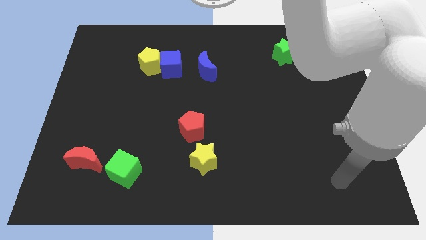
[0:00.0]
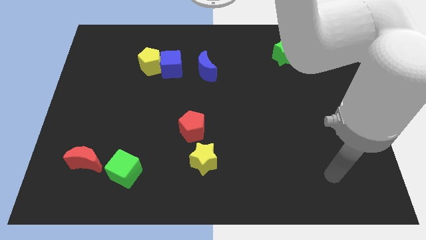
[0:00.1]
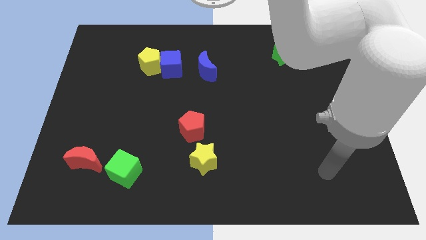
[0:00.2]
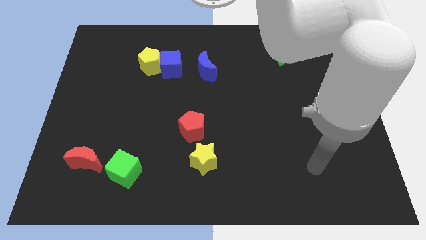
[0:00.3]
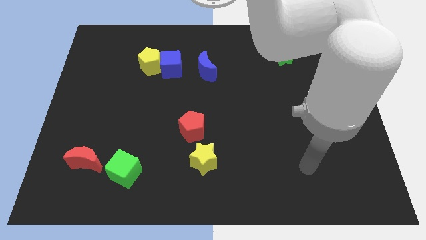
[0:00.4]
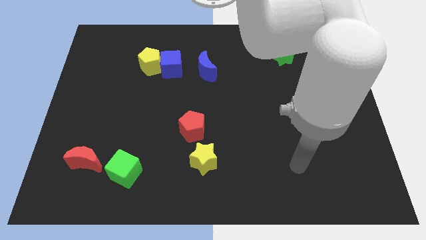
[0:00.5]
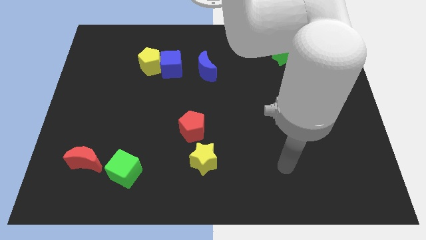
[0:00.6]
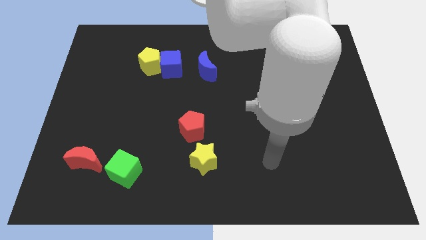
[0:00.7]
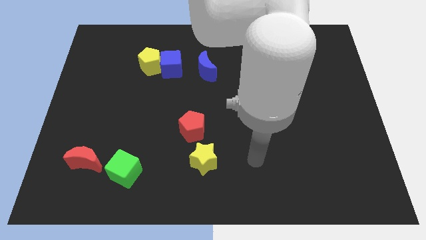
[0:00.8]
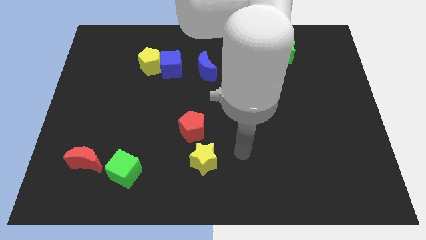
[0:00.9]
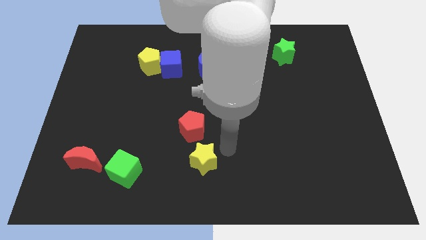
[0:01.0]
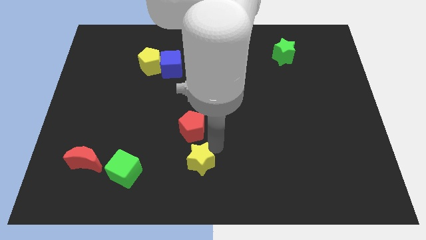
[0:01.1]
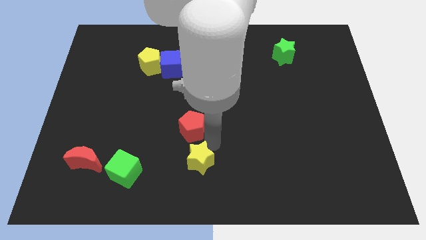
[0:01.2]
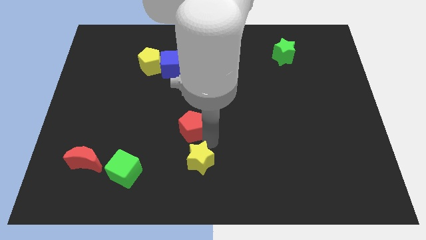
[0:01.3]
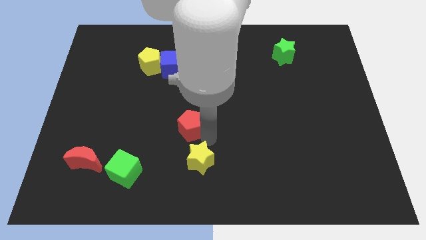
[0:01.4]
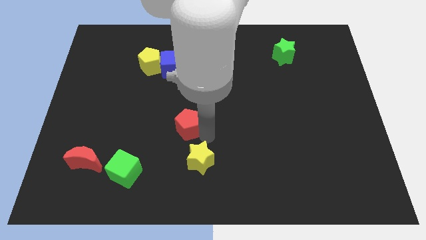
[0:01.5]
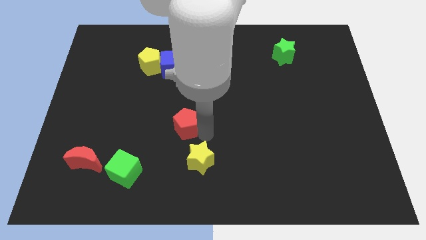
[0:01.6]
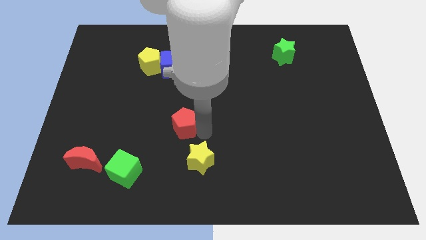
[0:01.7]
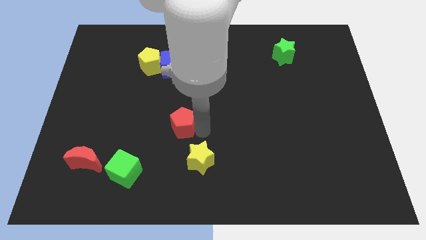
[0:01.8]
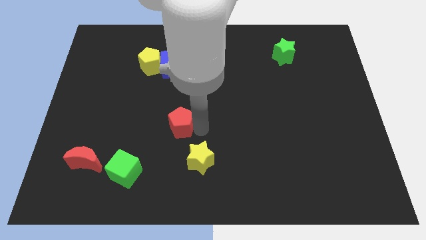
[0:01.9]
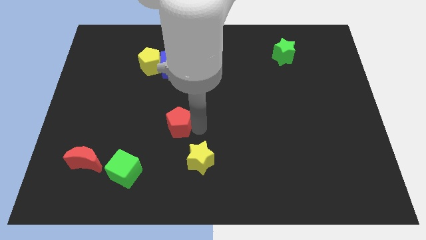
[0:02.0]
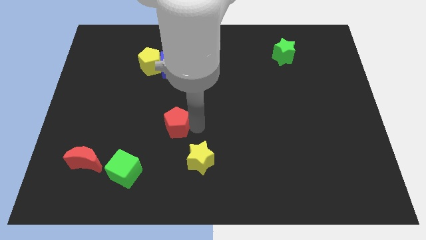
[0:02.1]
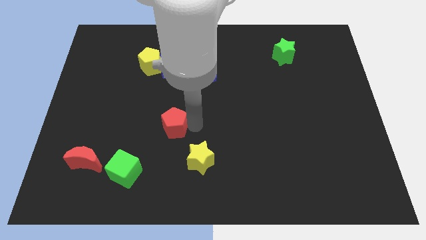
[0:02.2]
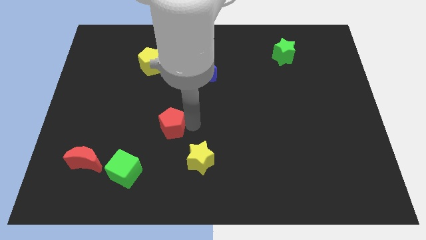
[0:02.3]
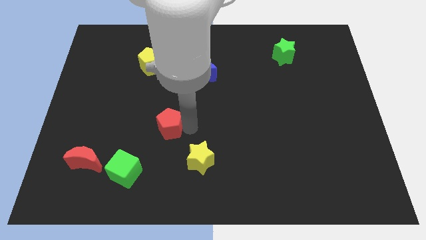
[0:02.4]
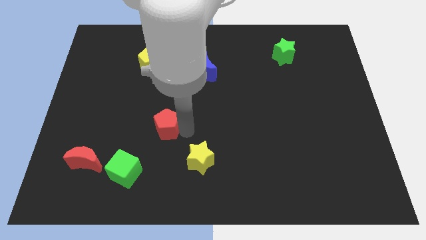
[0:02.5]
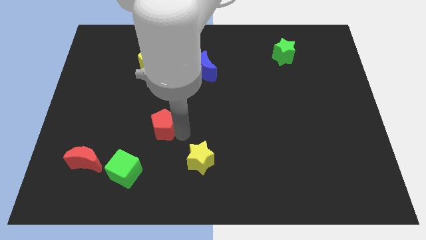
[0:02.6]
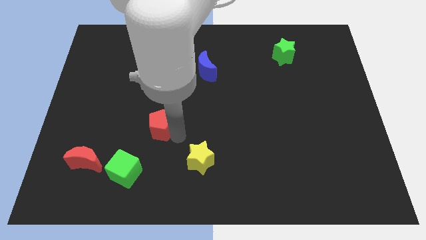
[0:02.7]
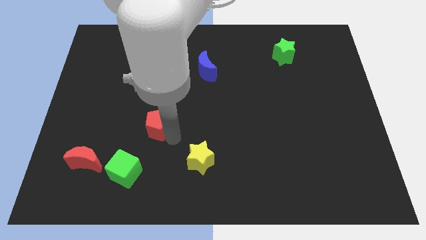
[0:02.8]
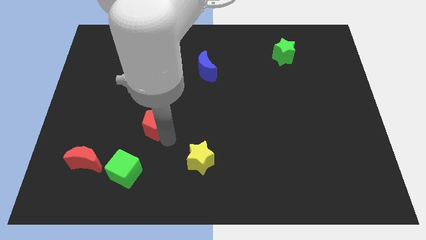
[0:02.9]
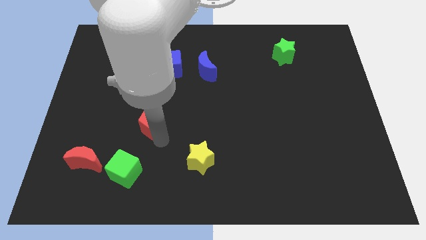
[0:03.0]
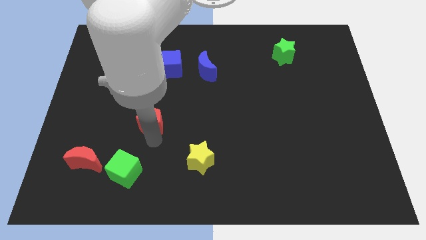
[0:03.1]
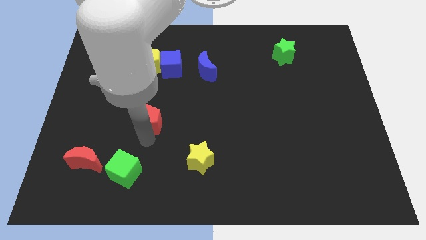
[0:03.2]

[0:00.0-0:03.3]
slide the red pentagon up and then left a little bit

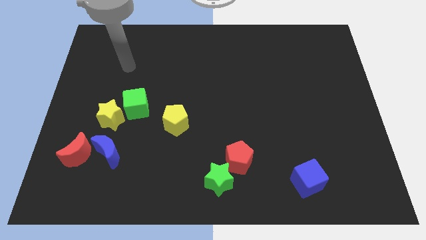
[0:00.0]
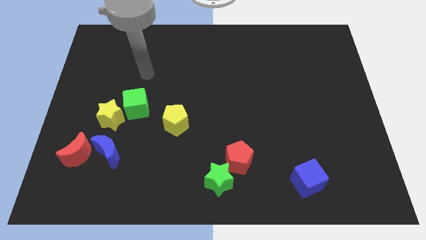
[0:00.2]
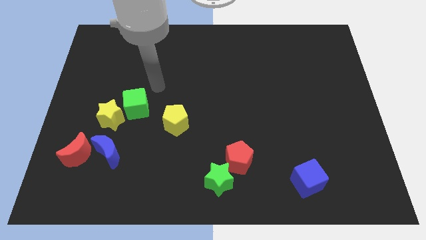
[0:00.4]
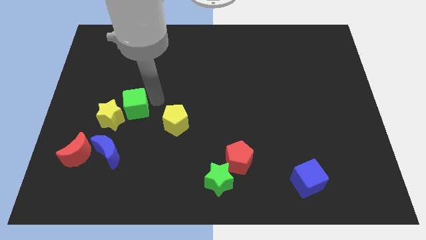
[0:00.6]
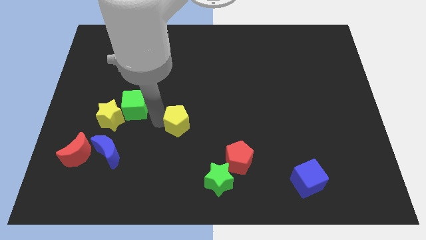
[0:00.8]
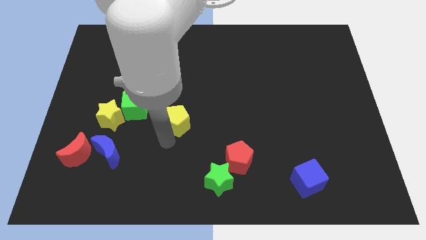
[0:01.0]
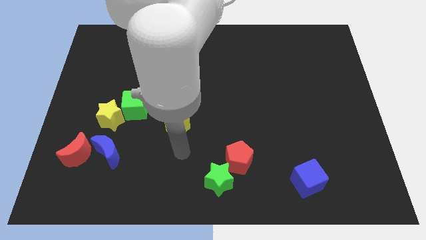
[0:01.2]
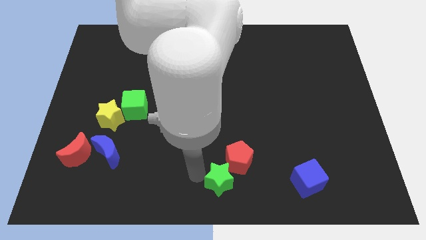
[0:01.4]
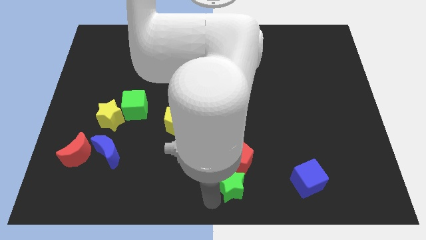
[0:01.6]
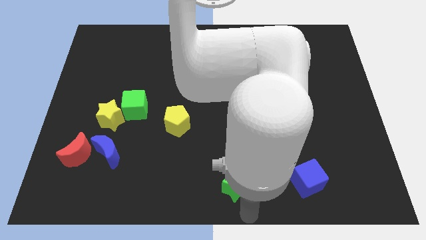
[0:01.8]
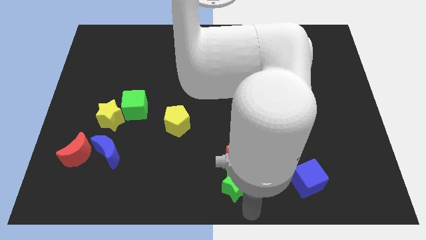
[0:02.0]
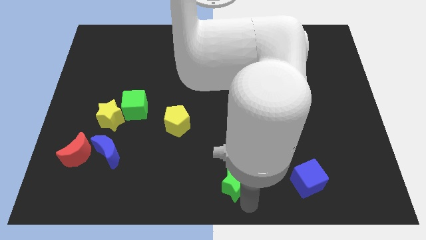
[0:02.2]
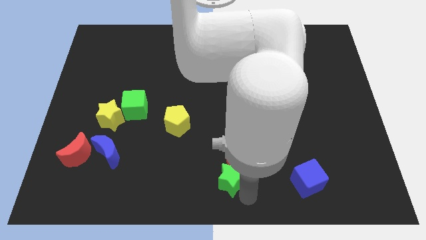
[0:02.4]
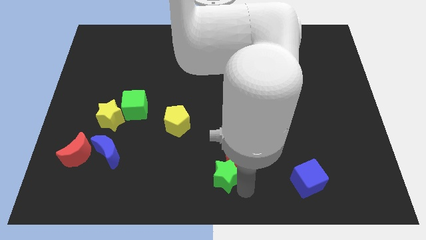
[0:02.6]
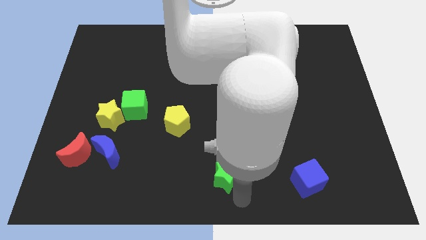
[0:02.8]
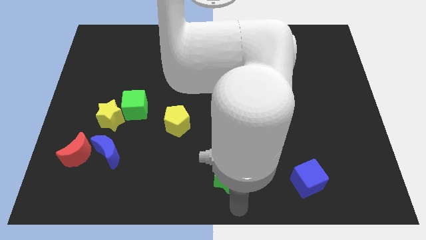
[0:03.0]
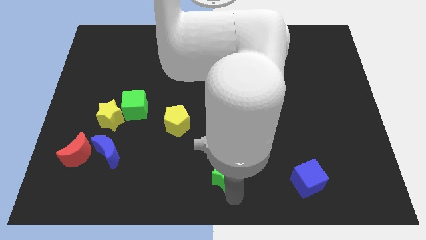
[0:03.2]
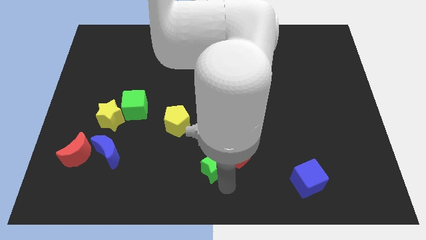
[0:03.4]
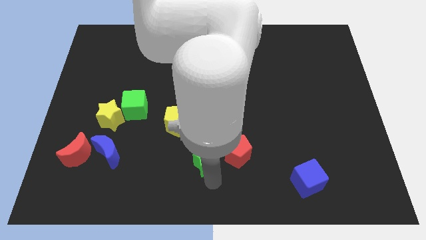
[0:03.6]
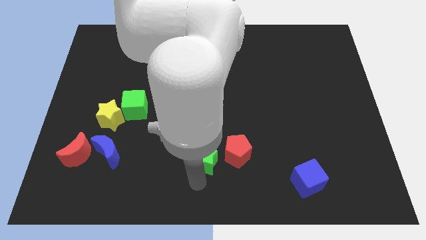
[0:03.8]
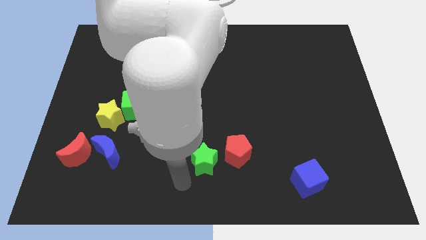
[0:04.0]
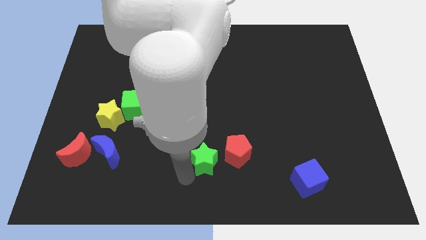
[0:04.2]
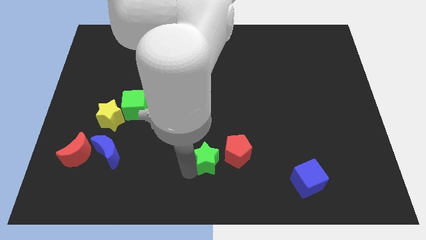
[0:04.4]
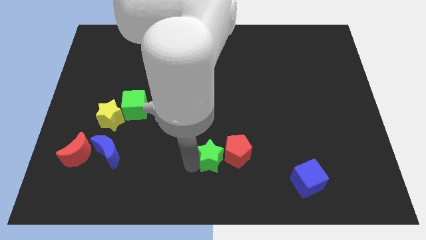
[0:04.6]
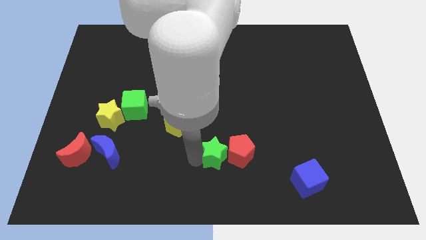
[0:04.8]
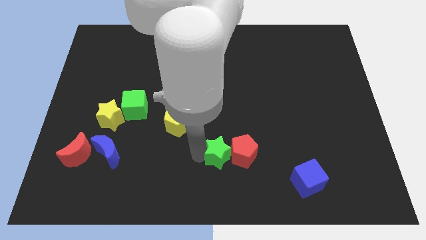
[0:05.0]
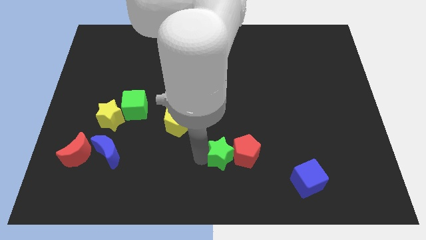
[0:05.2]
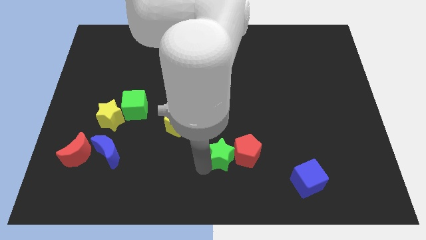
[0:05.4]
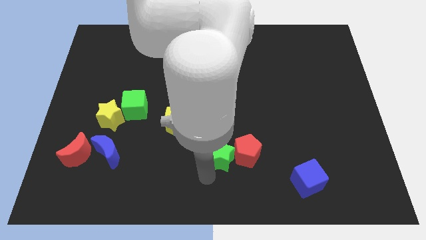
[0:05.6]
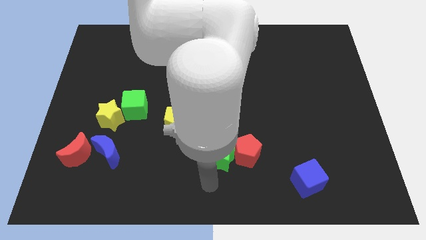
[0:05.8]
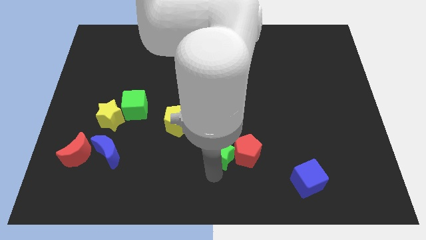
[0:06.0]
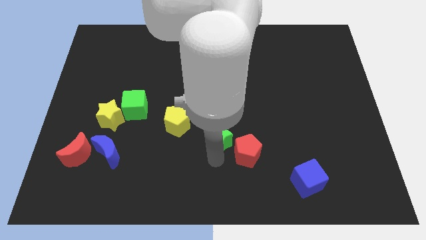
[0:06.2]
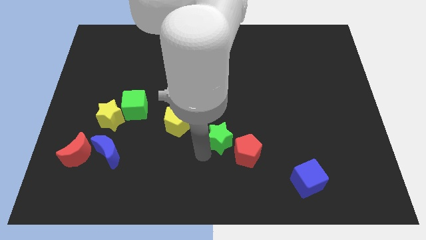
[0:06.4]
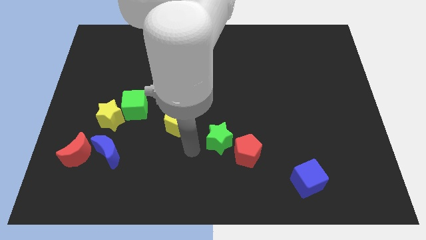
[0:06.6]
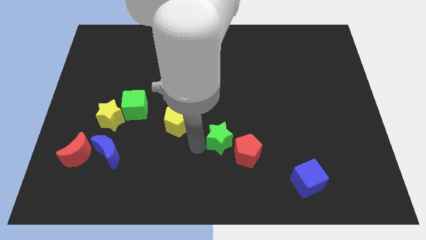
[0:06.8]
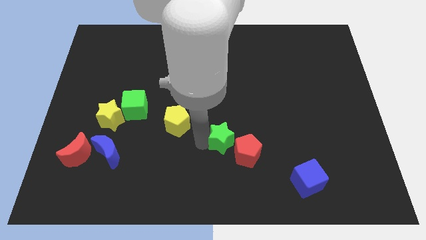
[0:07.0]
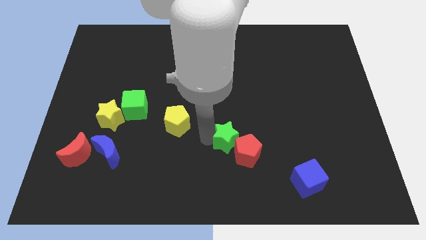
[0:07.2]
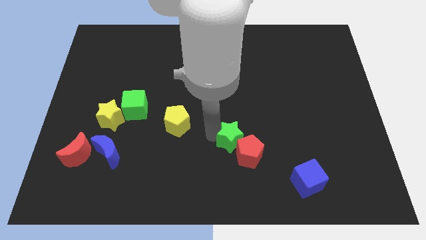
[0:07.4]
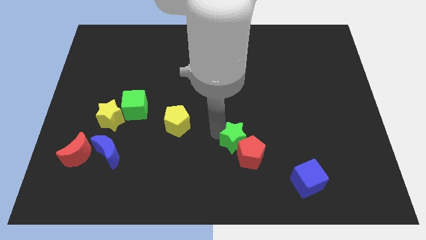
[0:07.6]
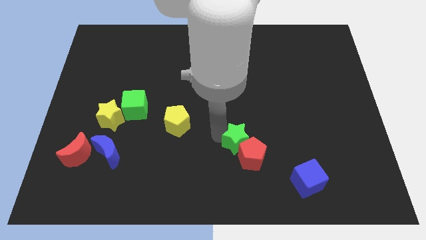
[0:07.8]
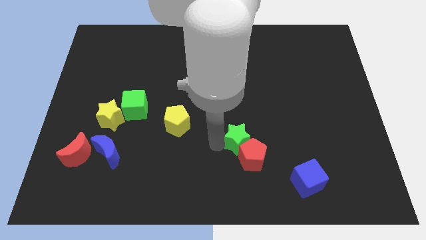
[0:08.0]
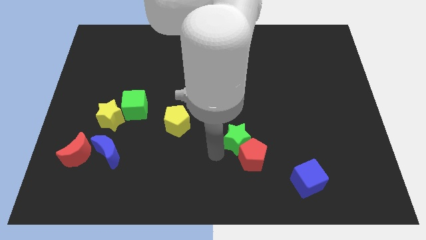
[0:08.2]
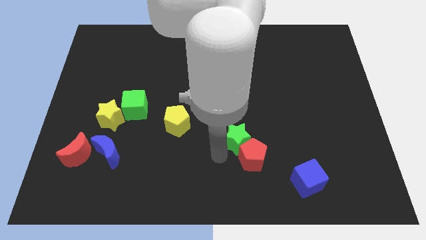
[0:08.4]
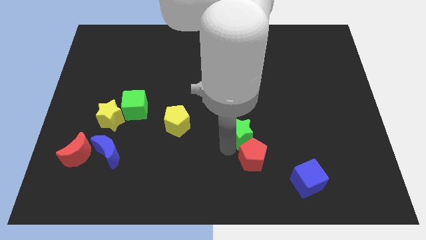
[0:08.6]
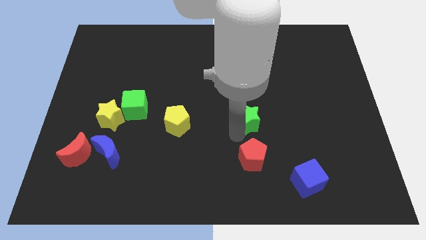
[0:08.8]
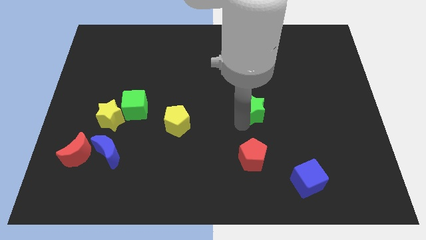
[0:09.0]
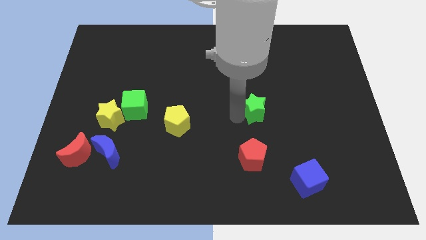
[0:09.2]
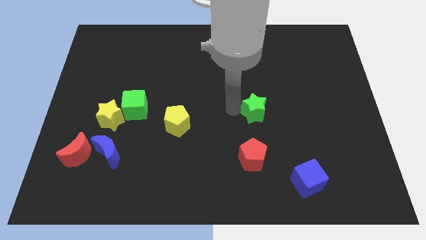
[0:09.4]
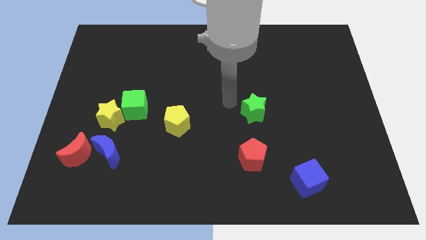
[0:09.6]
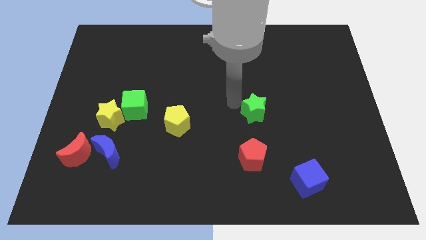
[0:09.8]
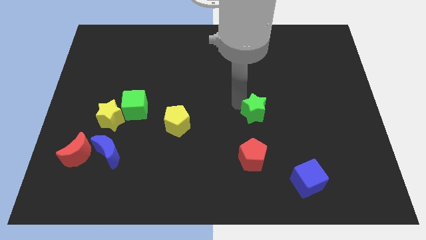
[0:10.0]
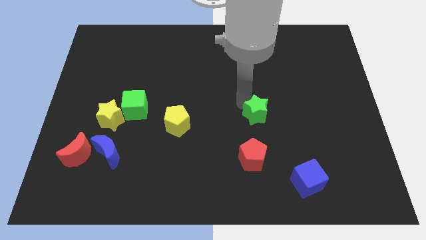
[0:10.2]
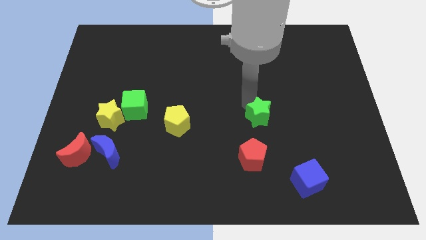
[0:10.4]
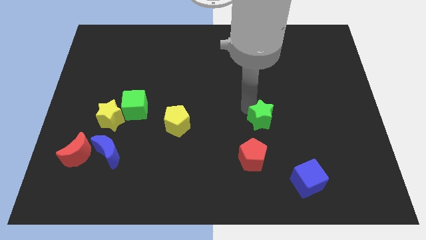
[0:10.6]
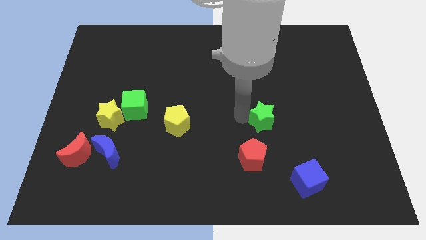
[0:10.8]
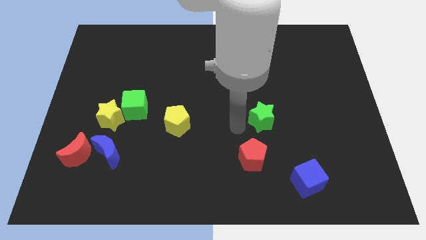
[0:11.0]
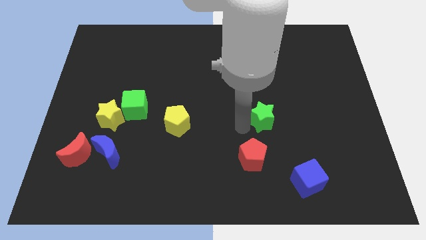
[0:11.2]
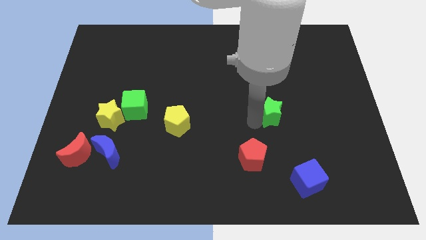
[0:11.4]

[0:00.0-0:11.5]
push the green star upwards and right diagonally
